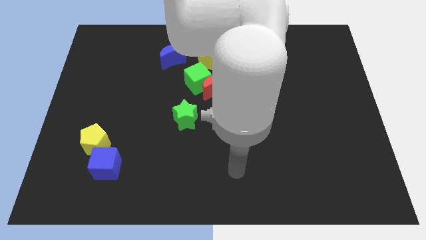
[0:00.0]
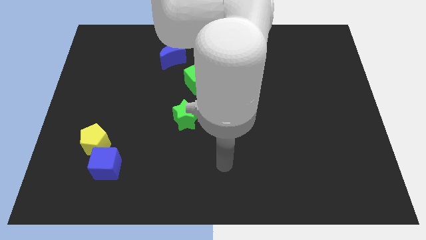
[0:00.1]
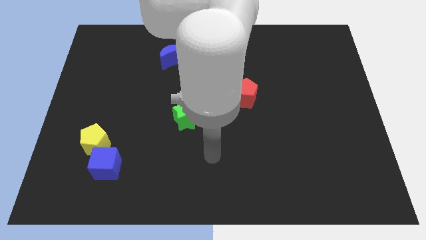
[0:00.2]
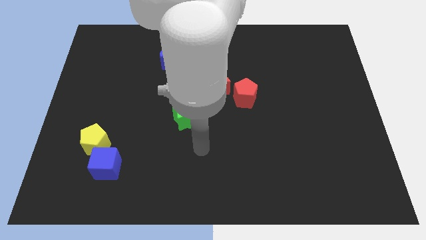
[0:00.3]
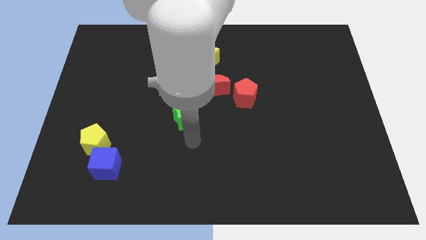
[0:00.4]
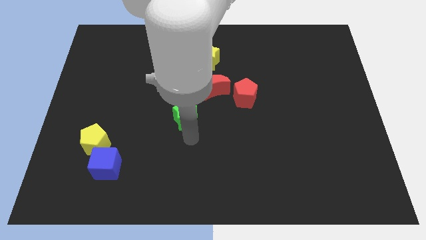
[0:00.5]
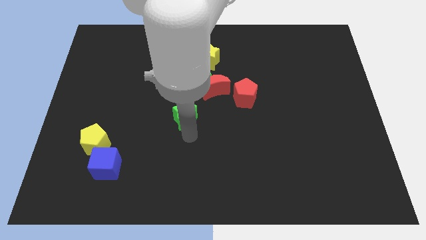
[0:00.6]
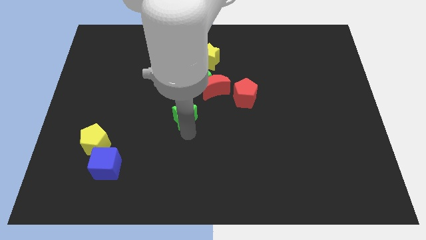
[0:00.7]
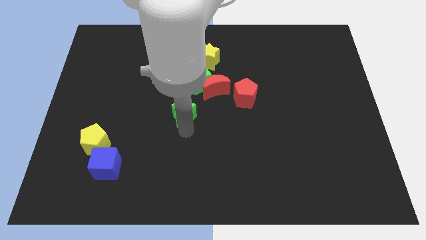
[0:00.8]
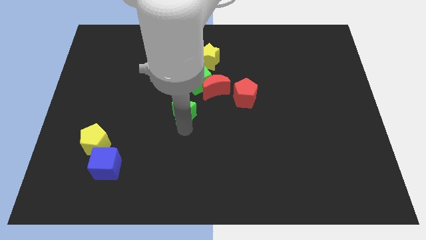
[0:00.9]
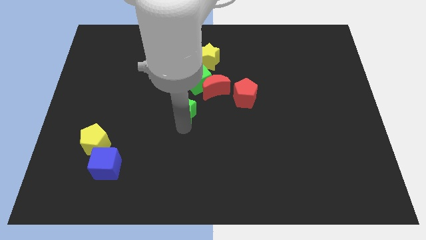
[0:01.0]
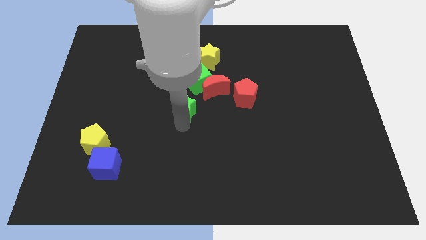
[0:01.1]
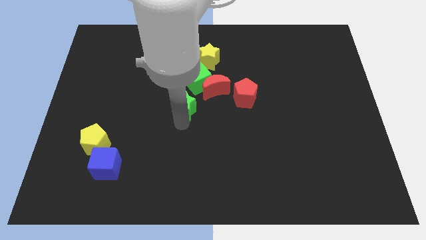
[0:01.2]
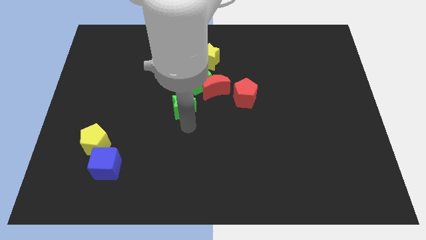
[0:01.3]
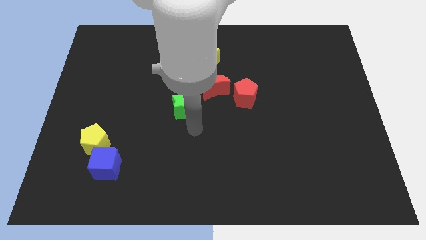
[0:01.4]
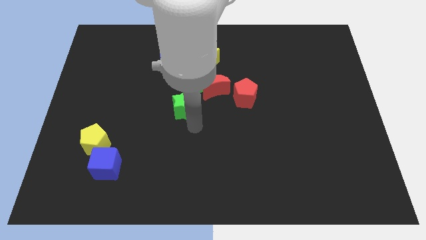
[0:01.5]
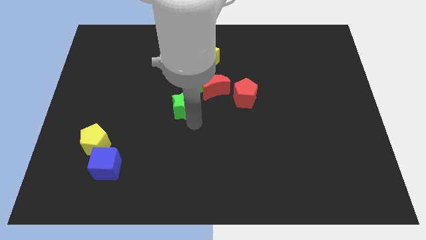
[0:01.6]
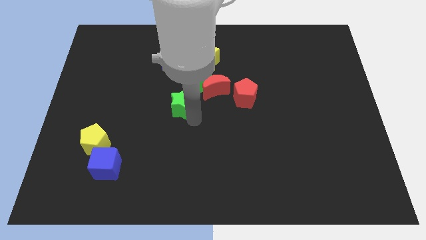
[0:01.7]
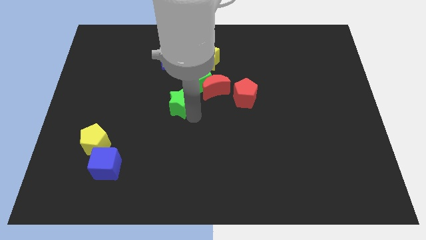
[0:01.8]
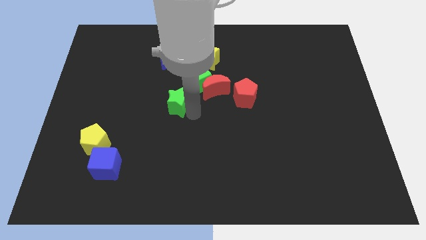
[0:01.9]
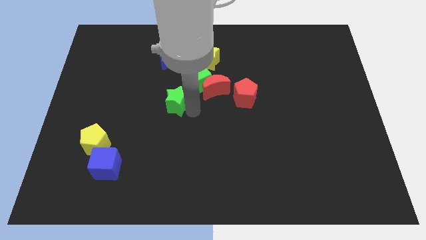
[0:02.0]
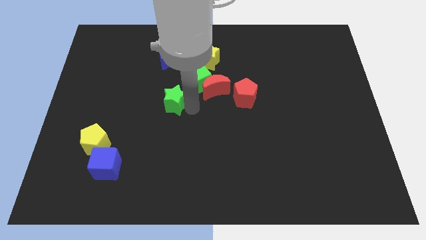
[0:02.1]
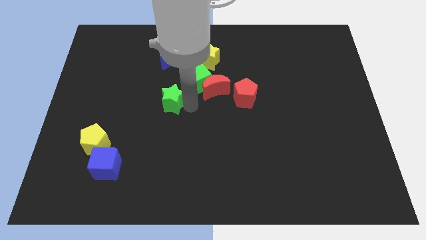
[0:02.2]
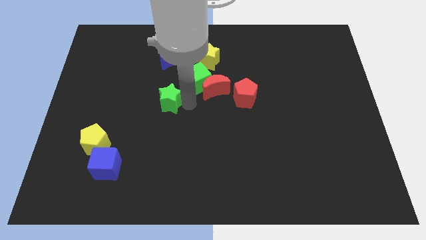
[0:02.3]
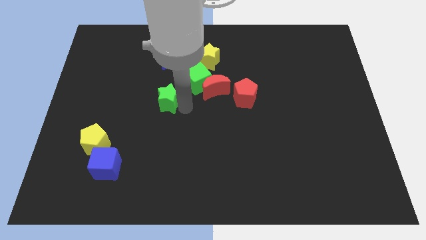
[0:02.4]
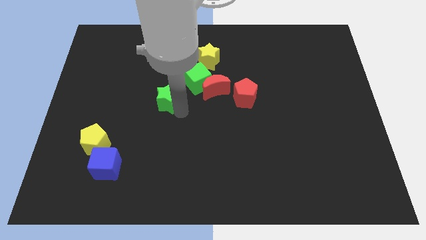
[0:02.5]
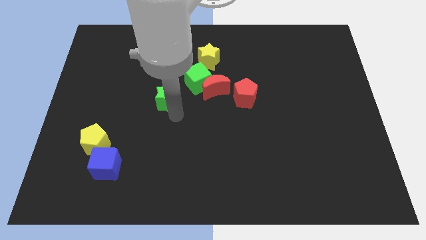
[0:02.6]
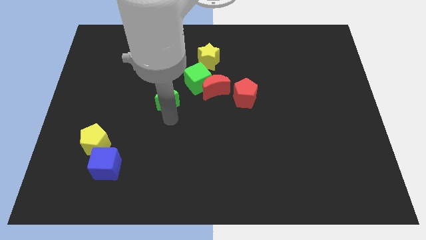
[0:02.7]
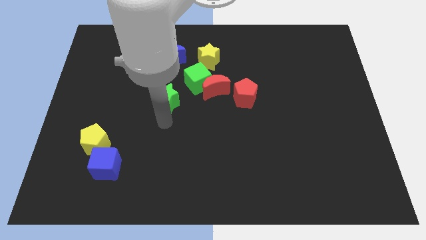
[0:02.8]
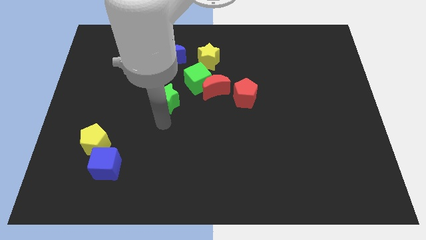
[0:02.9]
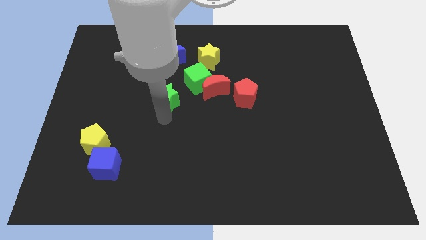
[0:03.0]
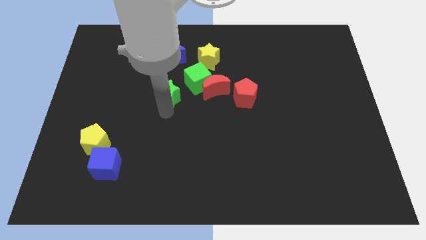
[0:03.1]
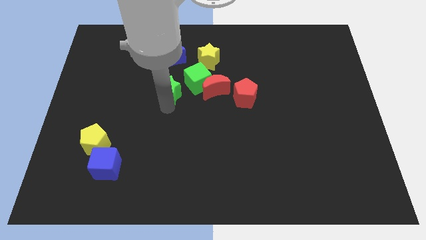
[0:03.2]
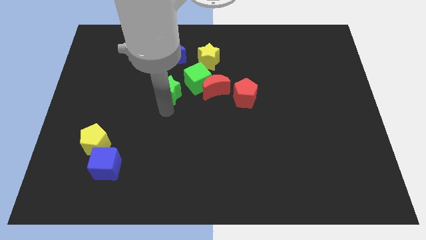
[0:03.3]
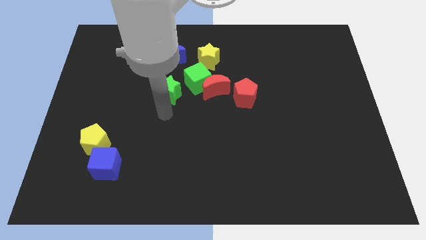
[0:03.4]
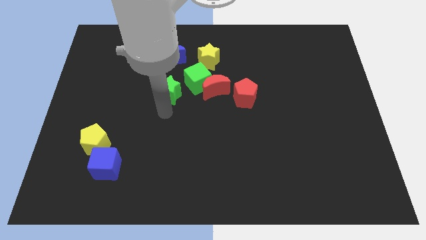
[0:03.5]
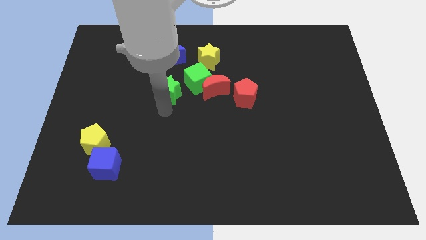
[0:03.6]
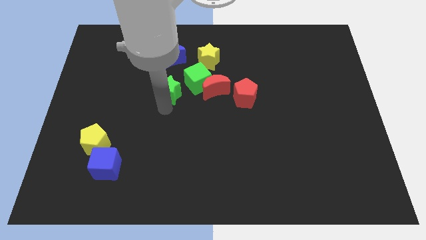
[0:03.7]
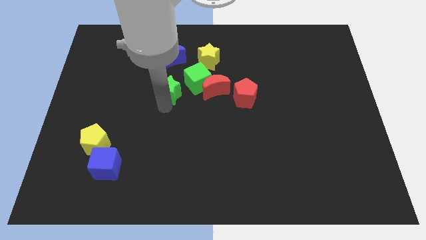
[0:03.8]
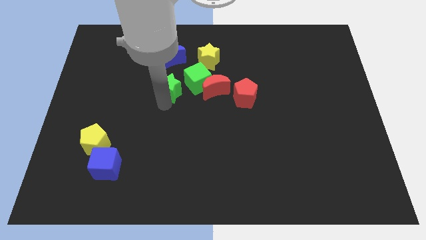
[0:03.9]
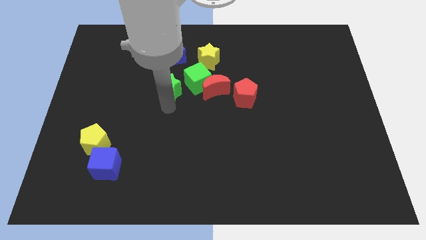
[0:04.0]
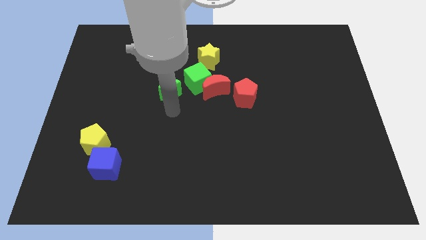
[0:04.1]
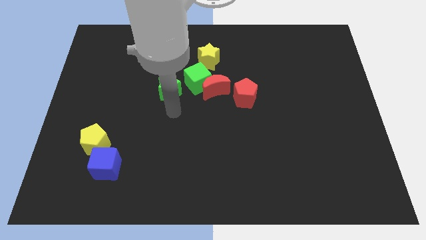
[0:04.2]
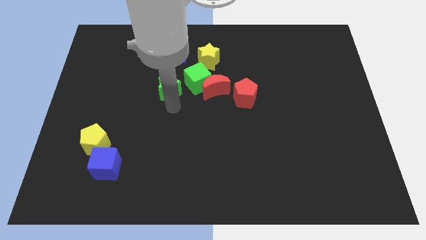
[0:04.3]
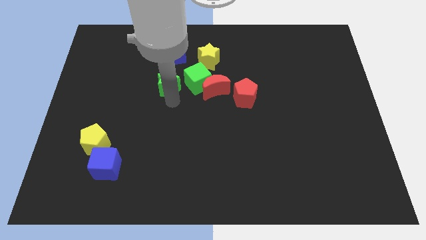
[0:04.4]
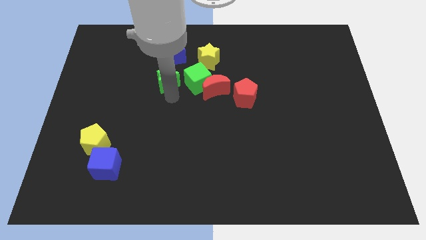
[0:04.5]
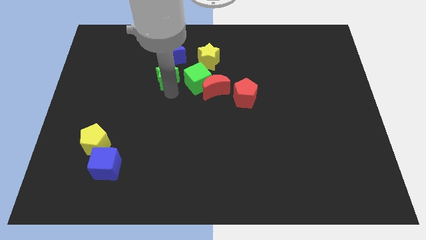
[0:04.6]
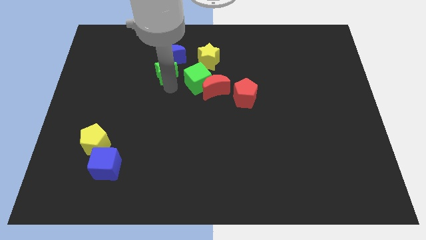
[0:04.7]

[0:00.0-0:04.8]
push the green star left of the yellow star

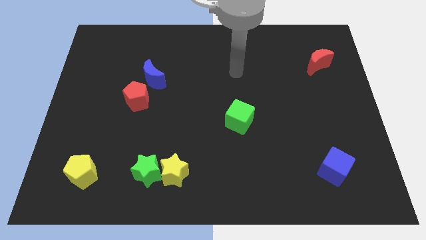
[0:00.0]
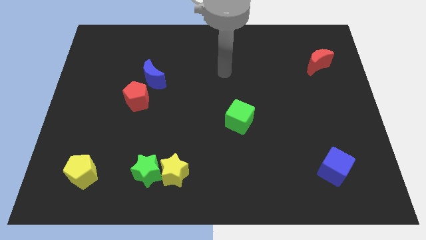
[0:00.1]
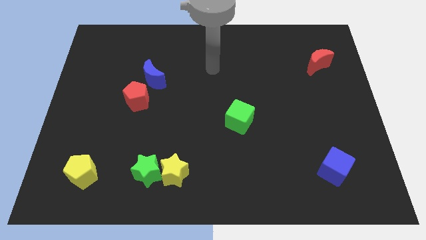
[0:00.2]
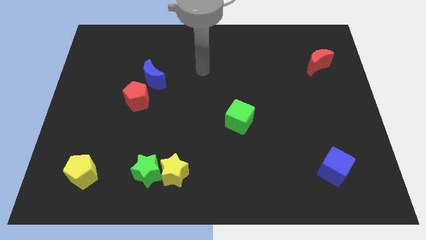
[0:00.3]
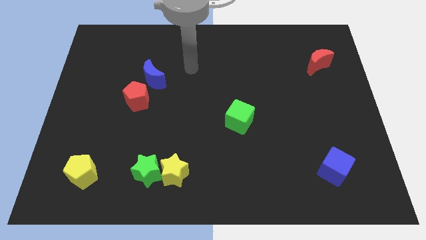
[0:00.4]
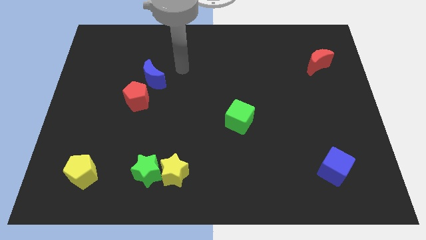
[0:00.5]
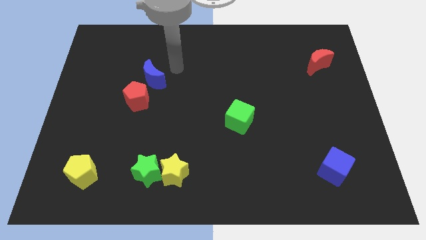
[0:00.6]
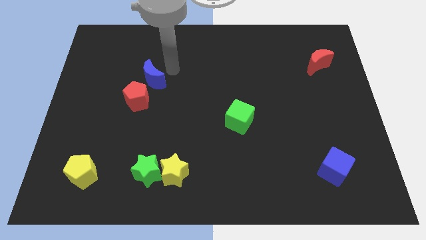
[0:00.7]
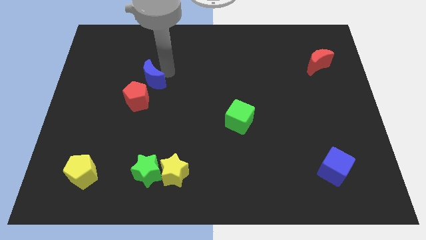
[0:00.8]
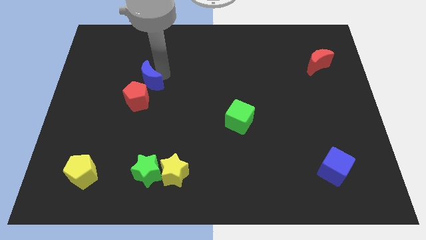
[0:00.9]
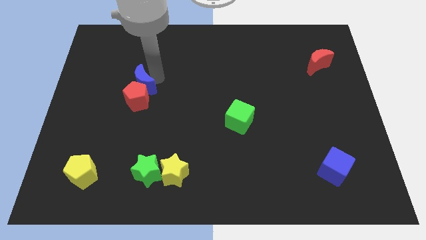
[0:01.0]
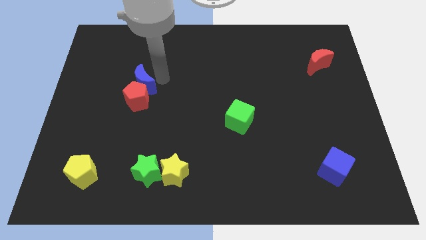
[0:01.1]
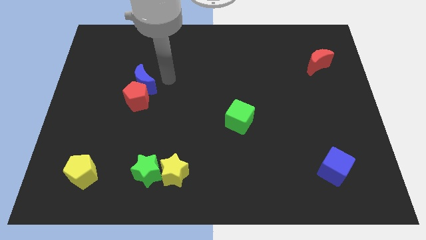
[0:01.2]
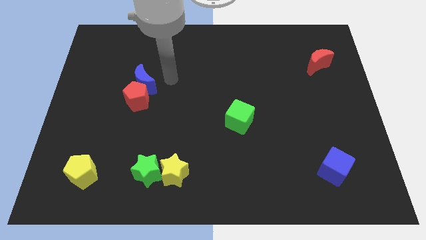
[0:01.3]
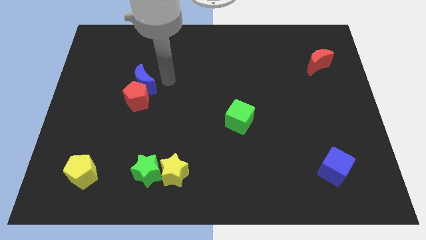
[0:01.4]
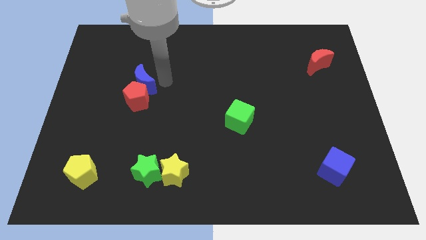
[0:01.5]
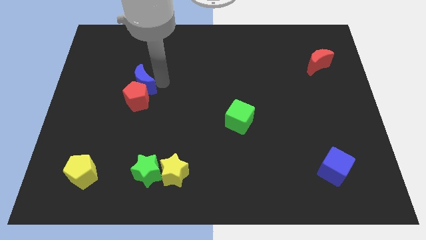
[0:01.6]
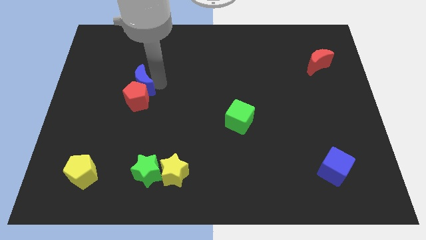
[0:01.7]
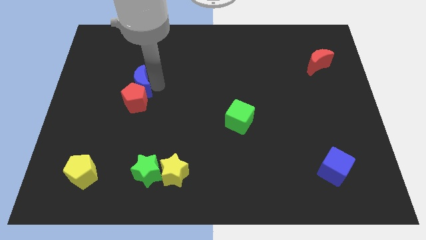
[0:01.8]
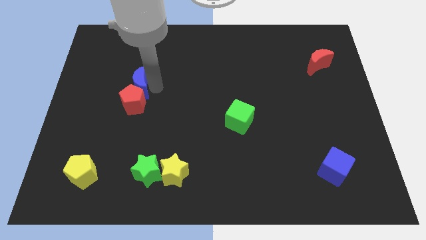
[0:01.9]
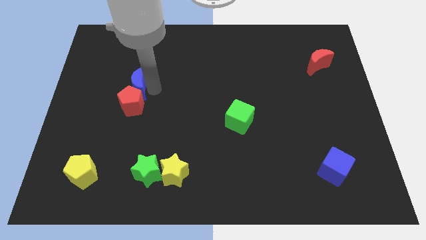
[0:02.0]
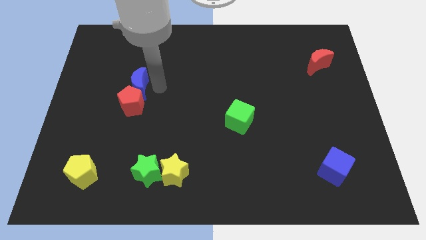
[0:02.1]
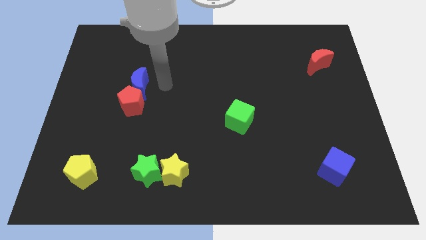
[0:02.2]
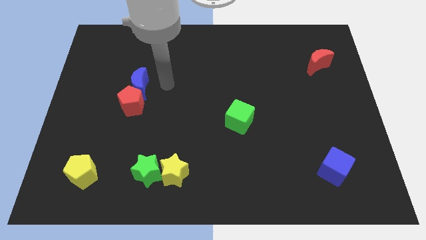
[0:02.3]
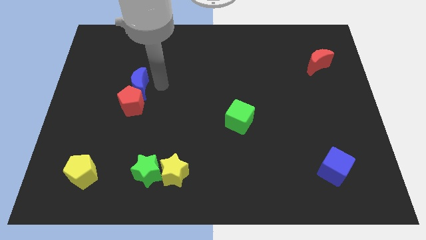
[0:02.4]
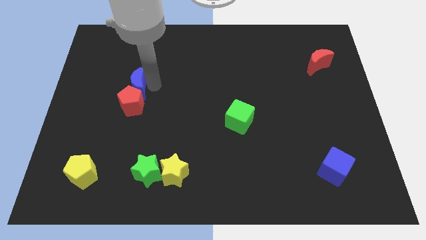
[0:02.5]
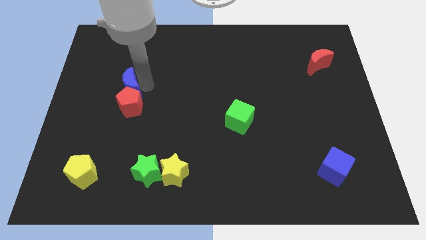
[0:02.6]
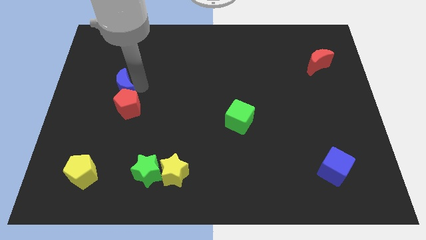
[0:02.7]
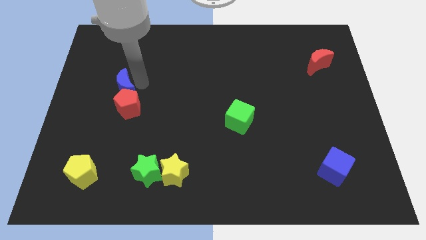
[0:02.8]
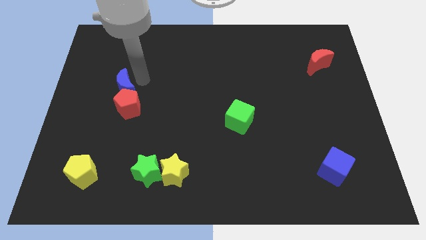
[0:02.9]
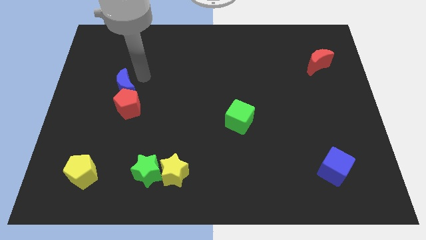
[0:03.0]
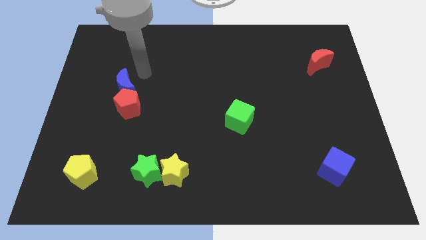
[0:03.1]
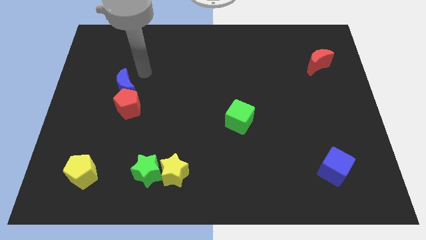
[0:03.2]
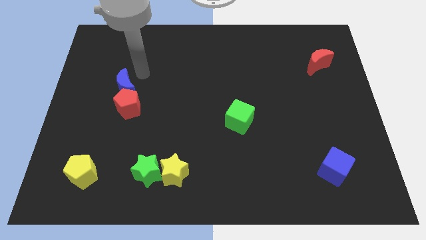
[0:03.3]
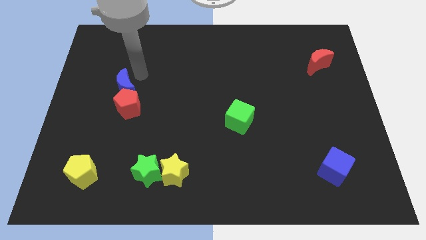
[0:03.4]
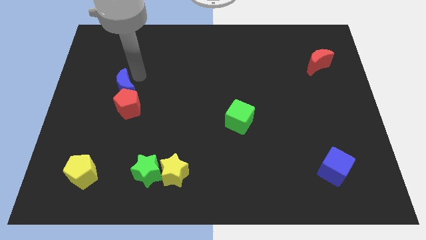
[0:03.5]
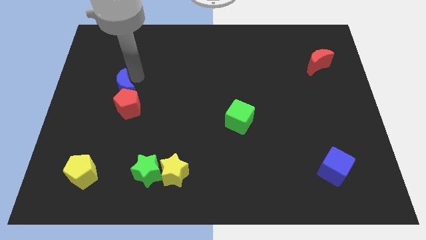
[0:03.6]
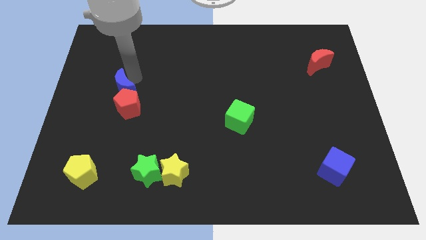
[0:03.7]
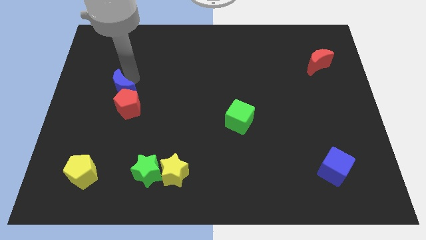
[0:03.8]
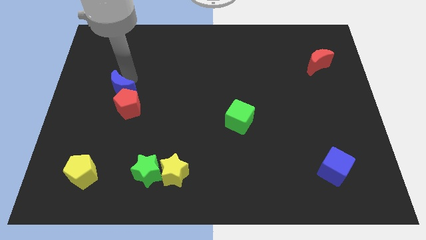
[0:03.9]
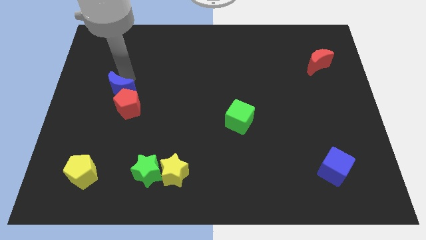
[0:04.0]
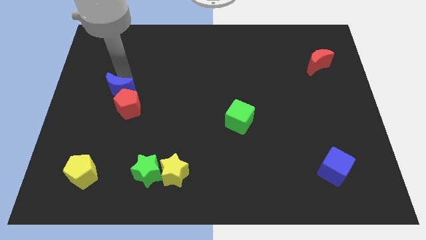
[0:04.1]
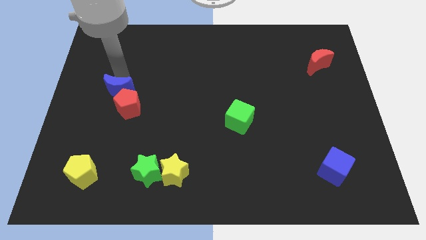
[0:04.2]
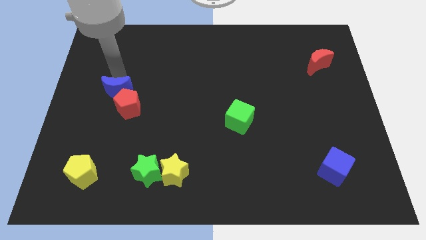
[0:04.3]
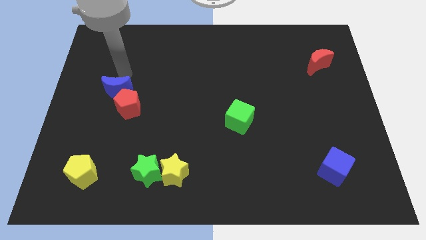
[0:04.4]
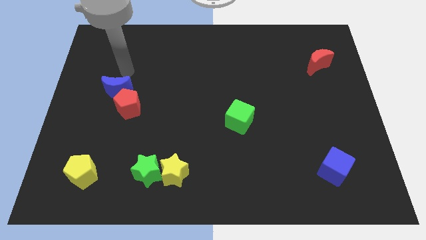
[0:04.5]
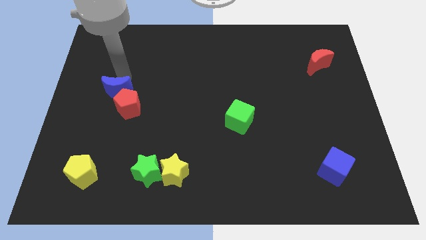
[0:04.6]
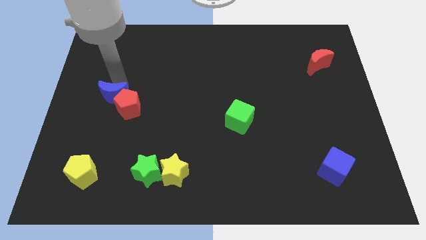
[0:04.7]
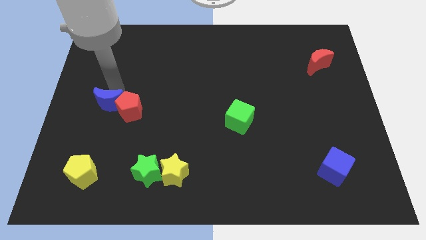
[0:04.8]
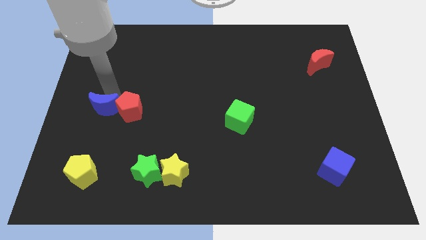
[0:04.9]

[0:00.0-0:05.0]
slide the blue moon to the bottom left of the red pentagon
